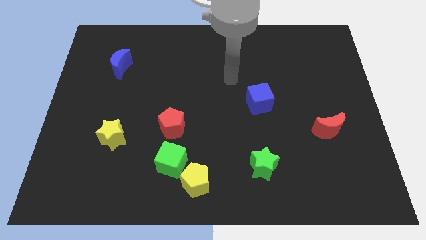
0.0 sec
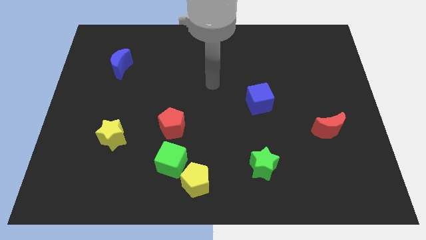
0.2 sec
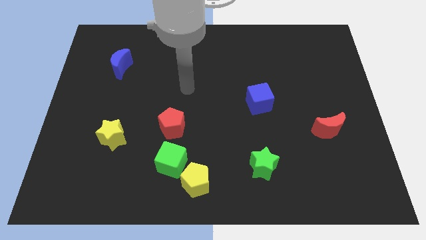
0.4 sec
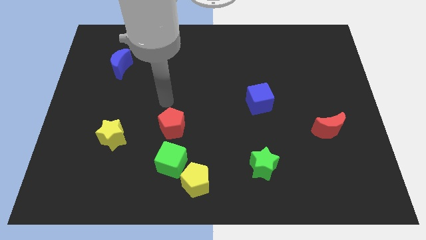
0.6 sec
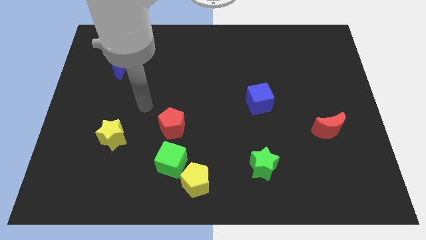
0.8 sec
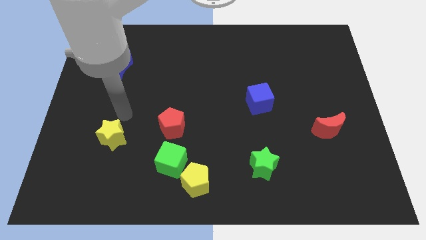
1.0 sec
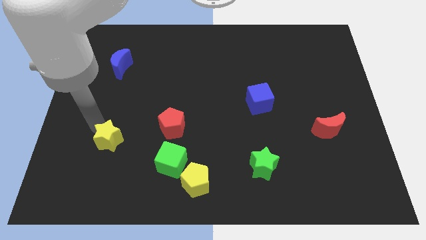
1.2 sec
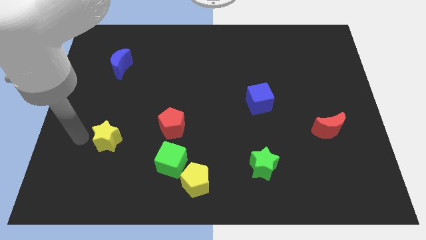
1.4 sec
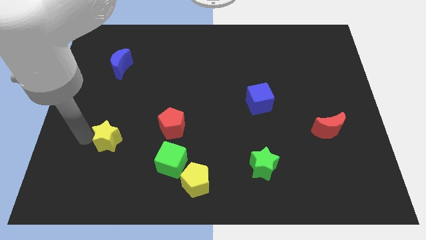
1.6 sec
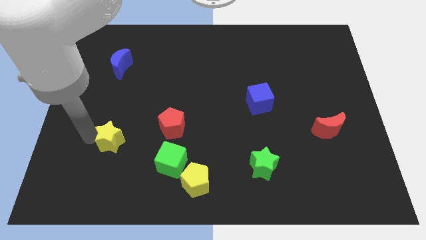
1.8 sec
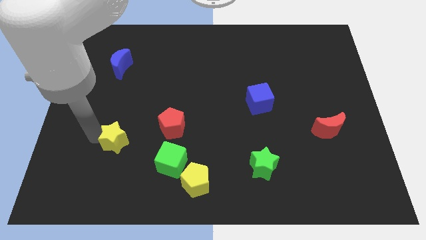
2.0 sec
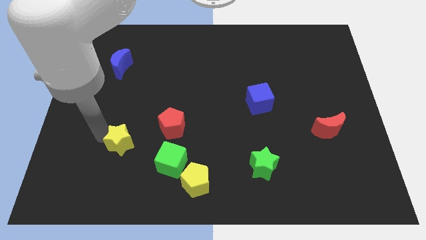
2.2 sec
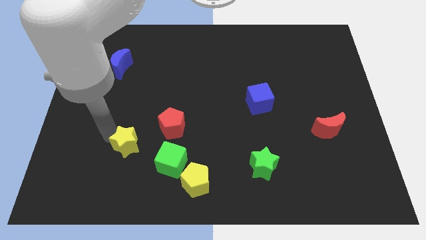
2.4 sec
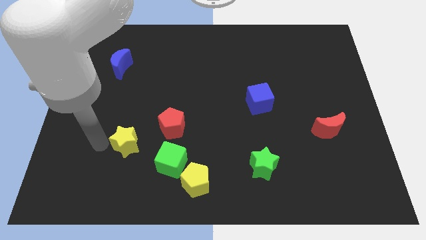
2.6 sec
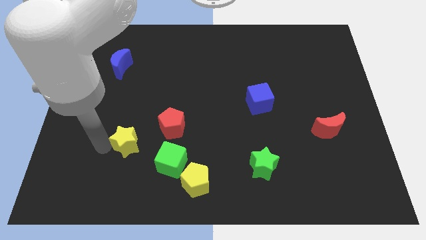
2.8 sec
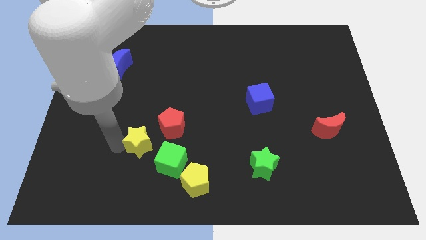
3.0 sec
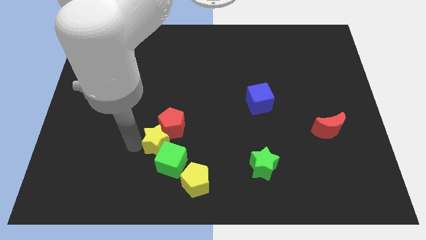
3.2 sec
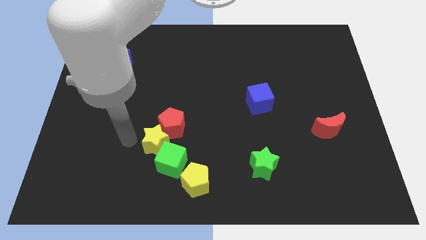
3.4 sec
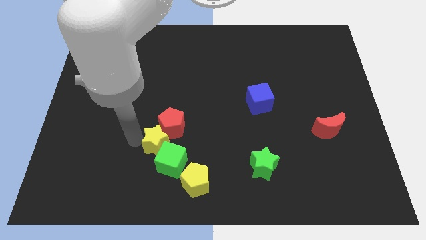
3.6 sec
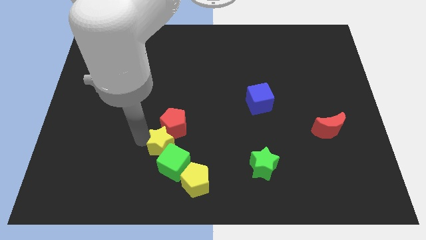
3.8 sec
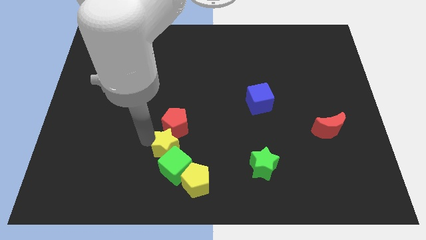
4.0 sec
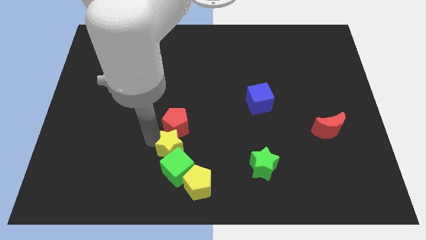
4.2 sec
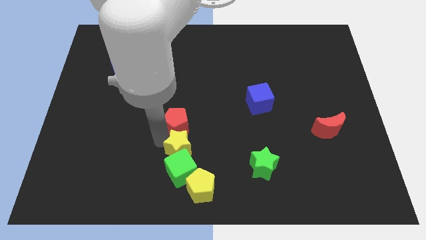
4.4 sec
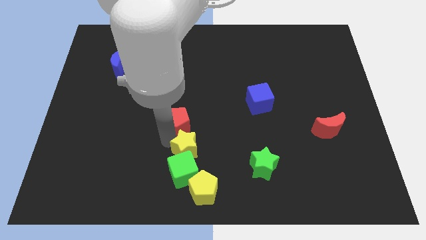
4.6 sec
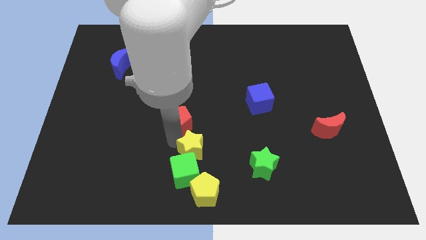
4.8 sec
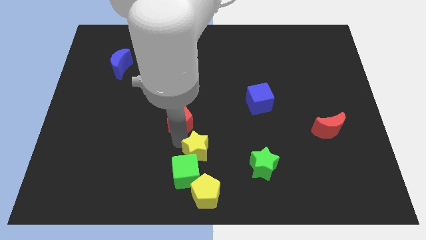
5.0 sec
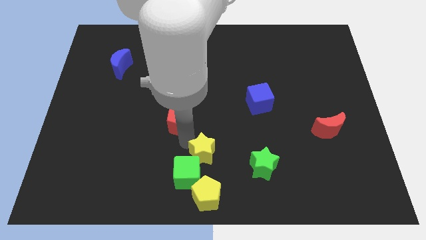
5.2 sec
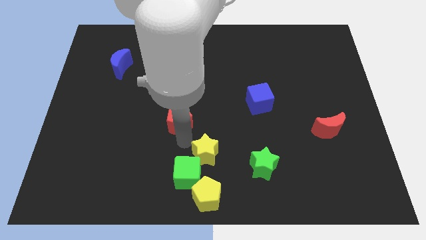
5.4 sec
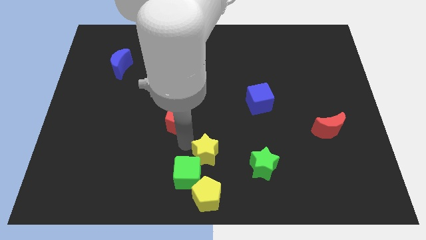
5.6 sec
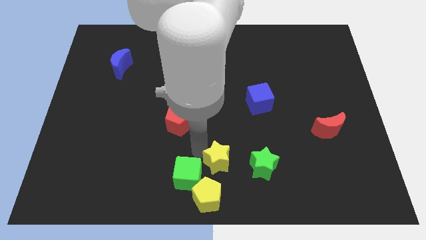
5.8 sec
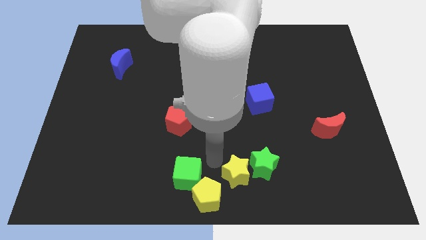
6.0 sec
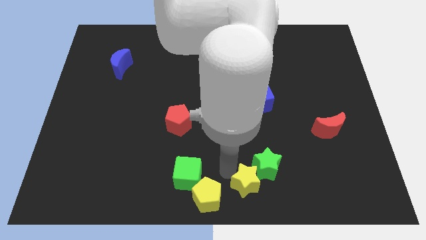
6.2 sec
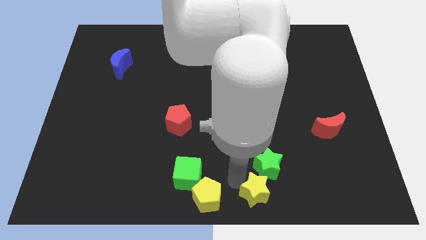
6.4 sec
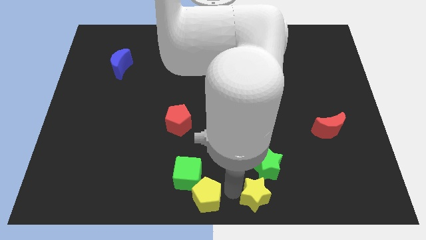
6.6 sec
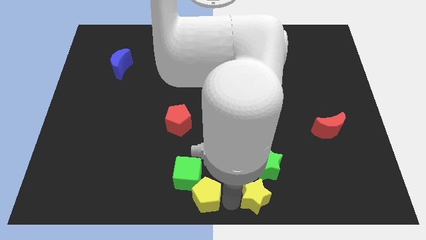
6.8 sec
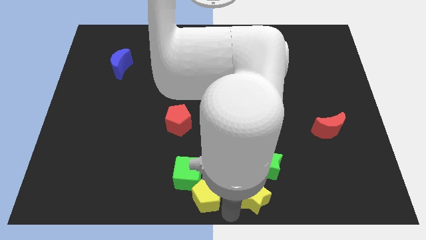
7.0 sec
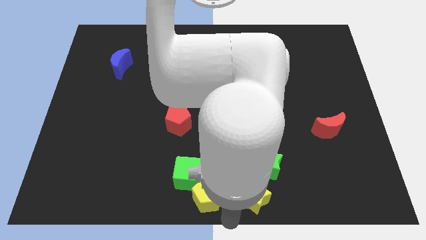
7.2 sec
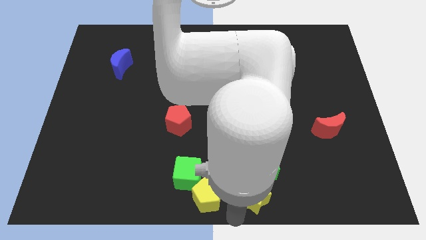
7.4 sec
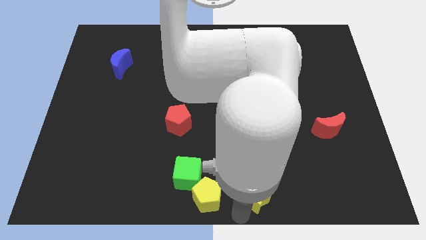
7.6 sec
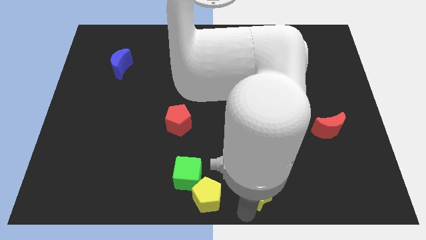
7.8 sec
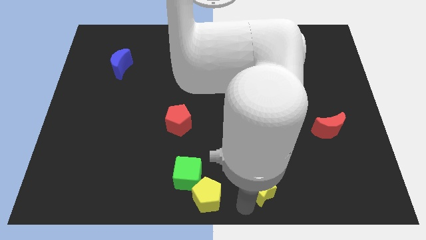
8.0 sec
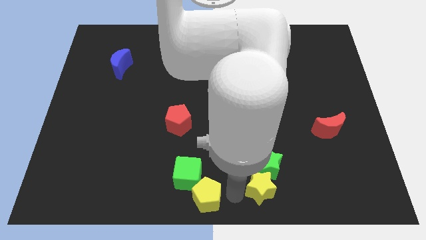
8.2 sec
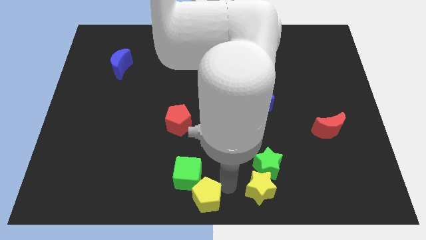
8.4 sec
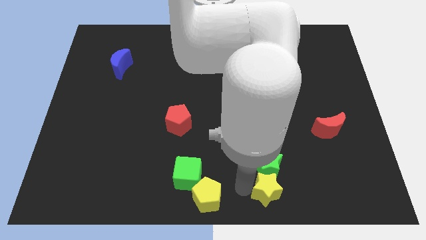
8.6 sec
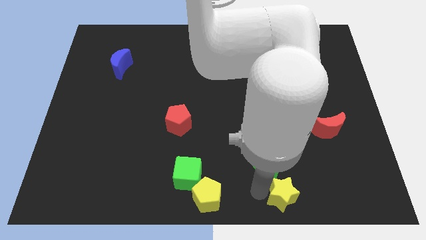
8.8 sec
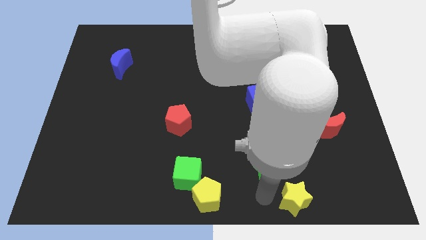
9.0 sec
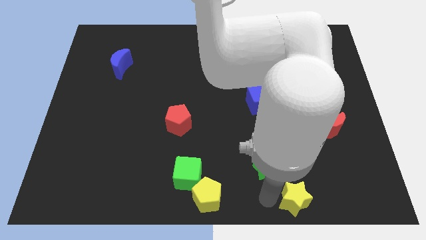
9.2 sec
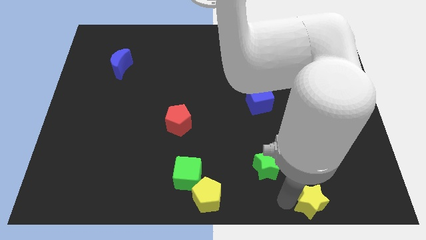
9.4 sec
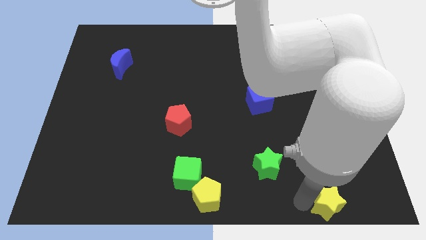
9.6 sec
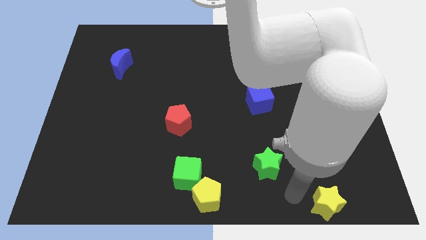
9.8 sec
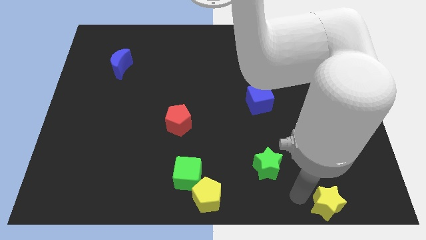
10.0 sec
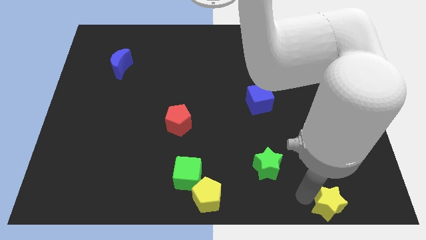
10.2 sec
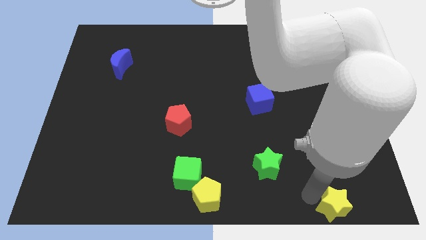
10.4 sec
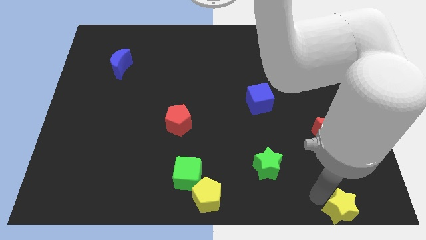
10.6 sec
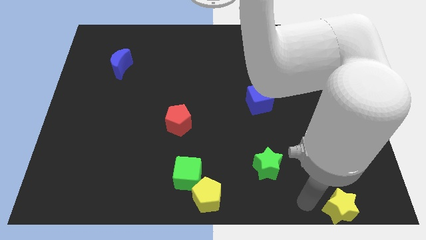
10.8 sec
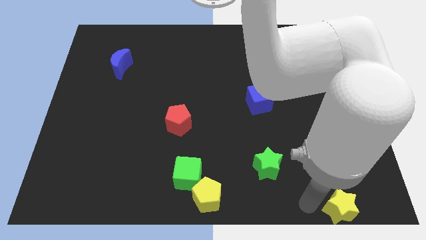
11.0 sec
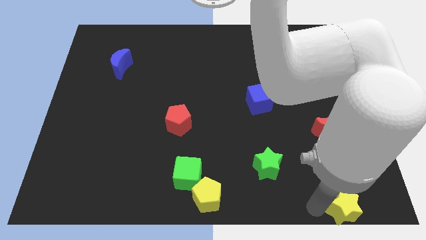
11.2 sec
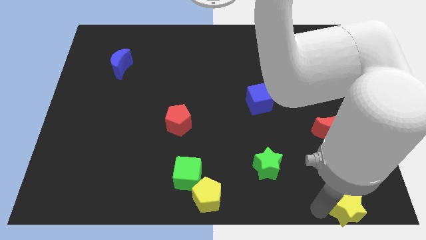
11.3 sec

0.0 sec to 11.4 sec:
move the yellow star to the lower right corner
